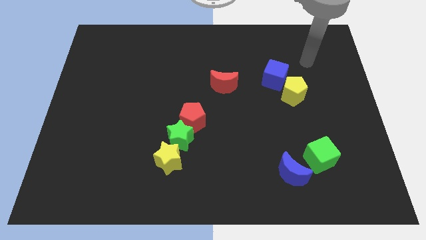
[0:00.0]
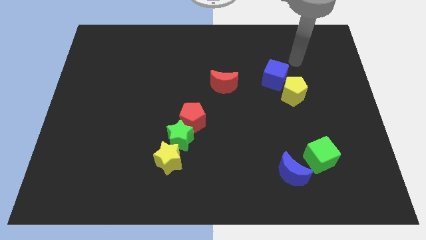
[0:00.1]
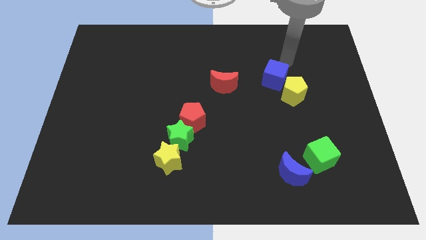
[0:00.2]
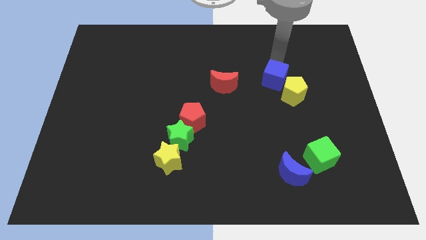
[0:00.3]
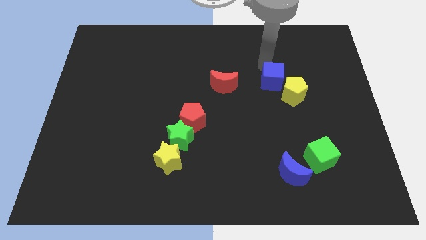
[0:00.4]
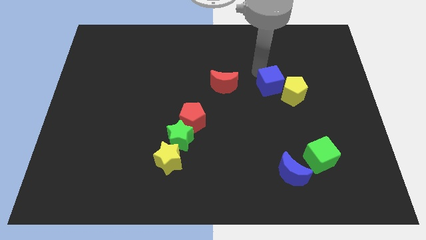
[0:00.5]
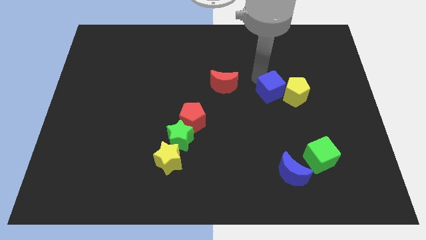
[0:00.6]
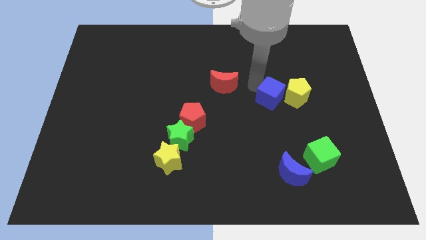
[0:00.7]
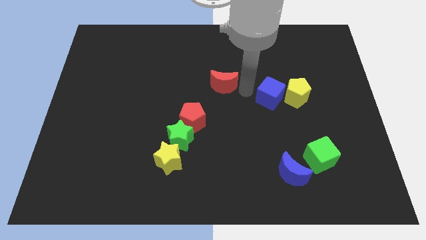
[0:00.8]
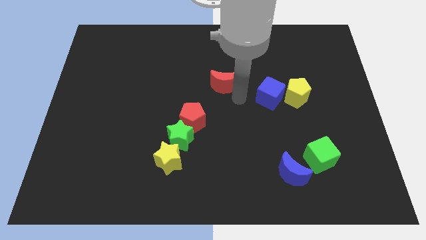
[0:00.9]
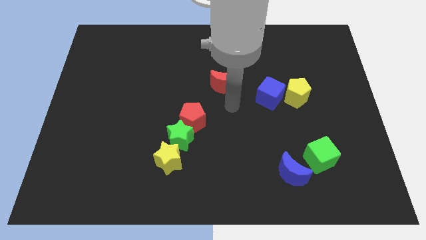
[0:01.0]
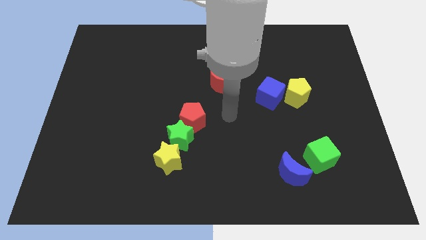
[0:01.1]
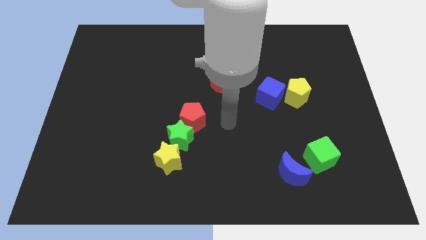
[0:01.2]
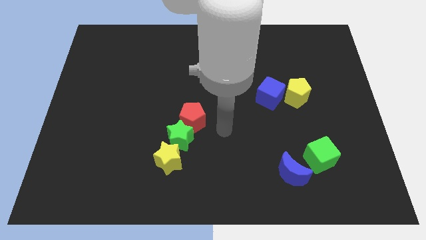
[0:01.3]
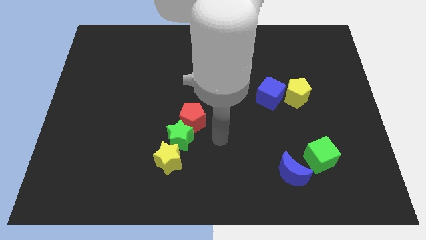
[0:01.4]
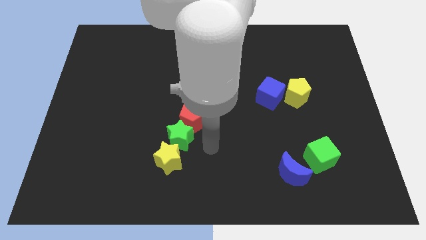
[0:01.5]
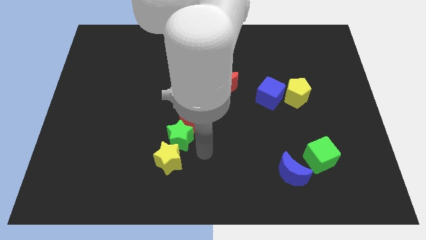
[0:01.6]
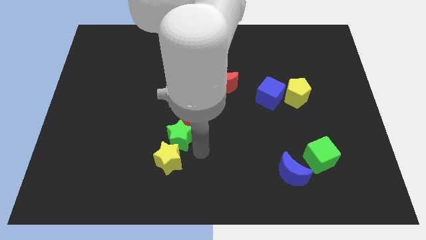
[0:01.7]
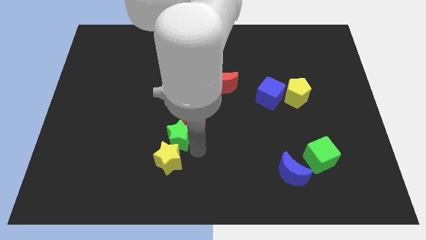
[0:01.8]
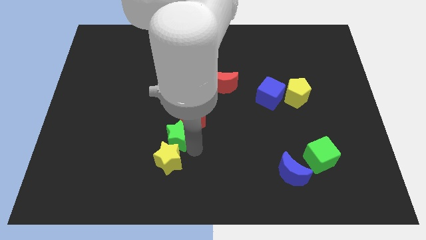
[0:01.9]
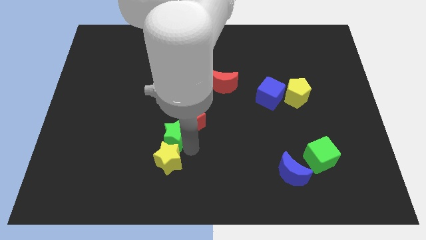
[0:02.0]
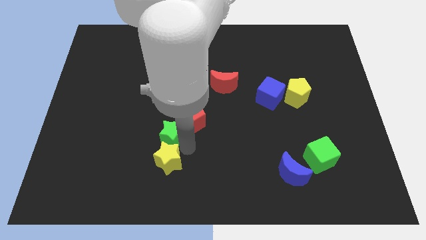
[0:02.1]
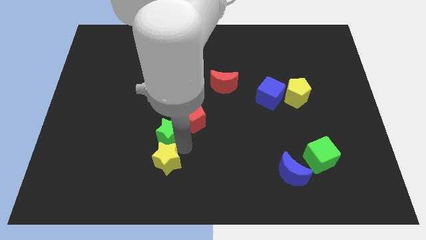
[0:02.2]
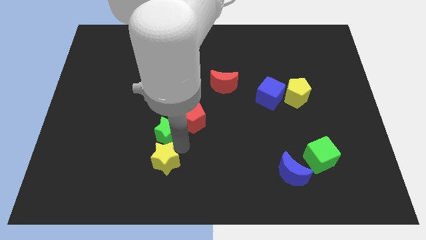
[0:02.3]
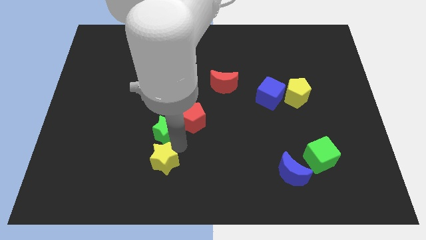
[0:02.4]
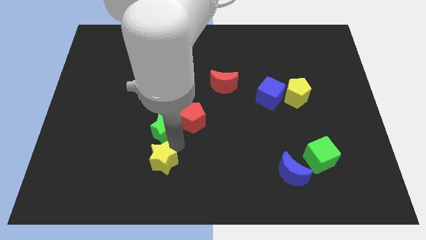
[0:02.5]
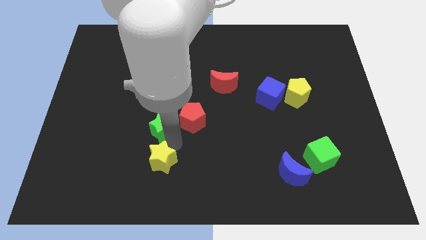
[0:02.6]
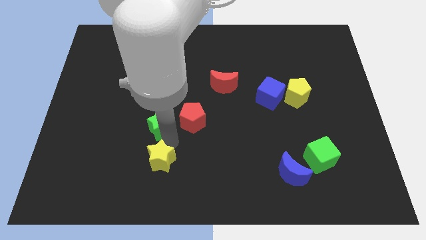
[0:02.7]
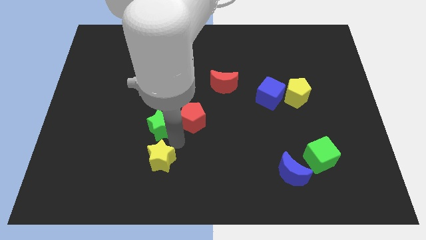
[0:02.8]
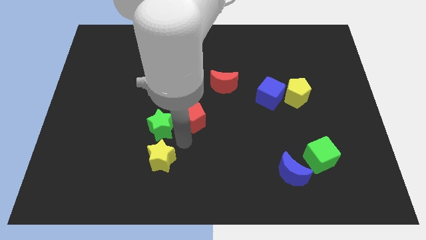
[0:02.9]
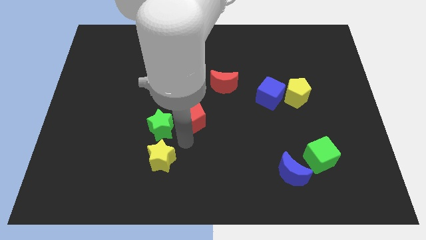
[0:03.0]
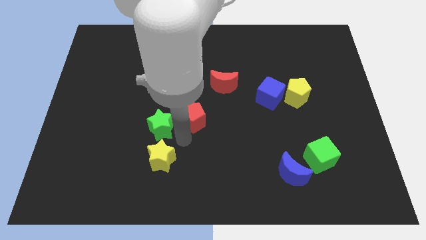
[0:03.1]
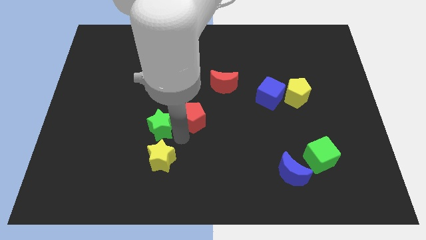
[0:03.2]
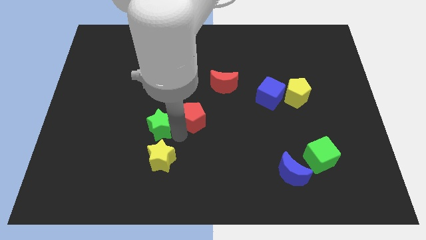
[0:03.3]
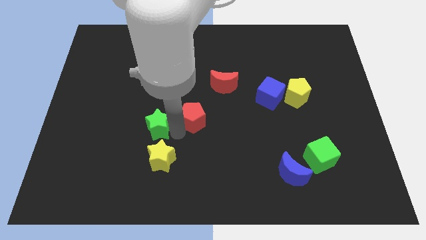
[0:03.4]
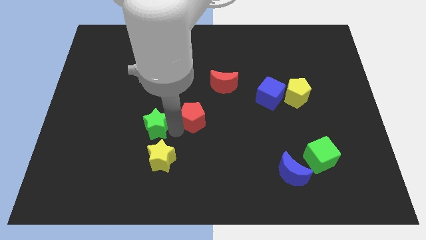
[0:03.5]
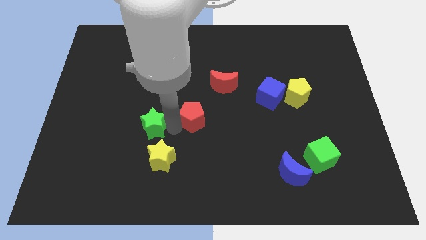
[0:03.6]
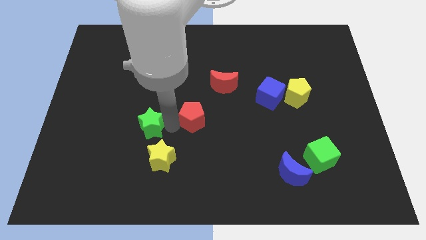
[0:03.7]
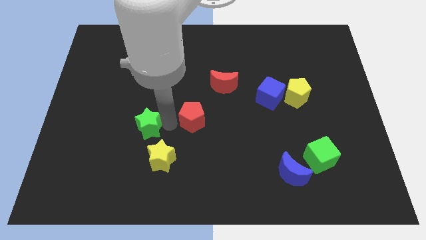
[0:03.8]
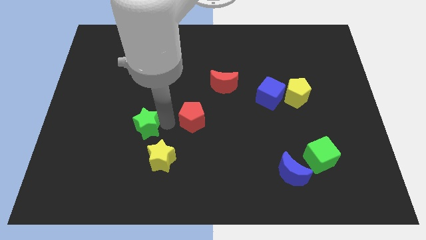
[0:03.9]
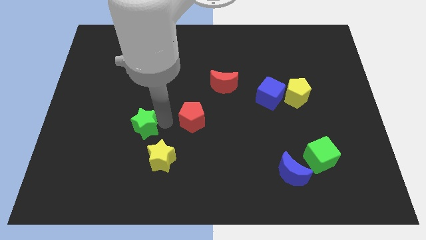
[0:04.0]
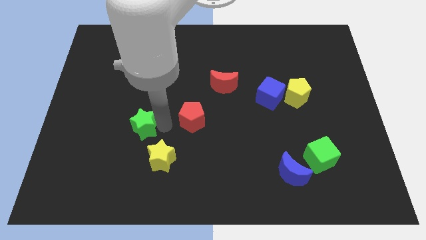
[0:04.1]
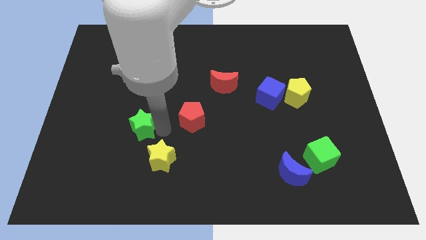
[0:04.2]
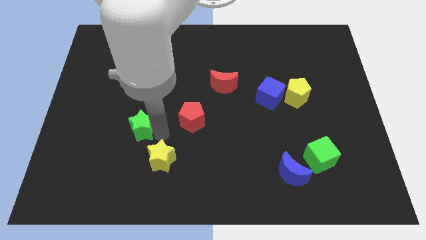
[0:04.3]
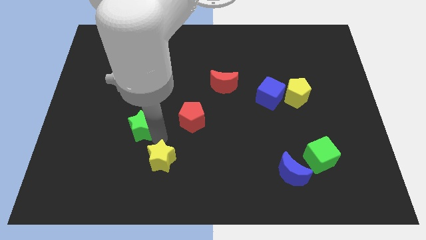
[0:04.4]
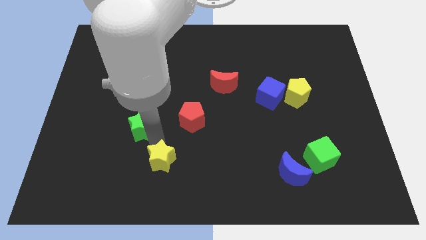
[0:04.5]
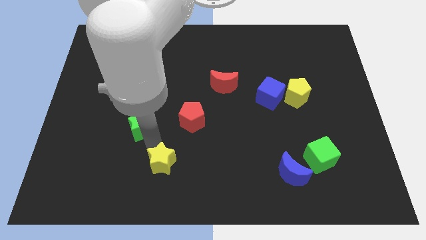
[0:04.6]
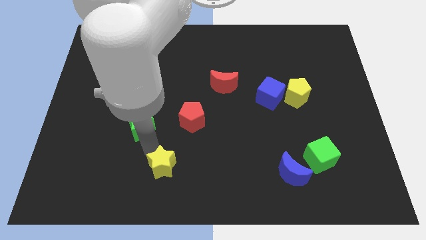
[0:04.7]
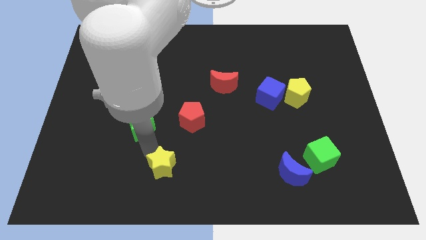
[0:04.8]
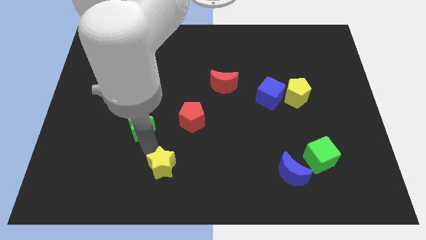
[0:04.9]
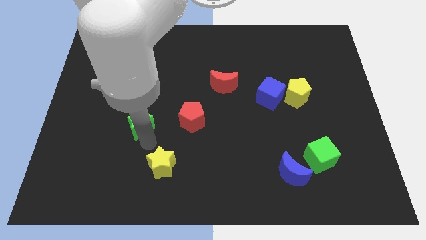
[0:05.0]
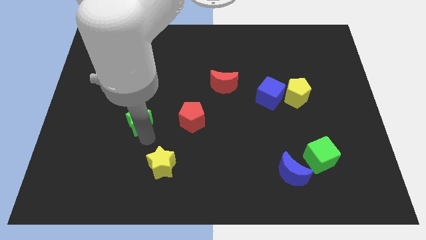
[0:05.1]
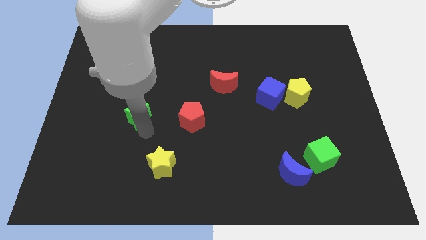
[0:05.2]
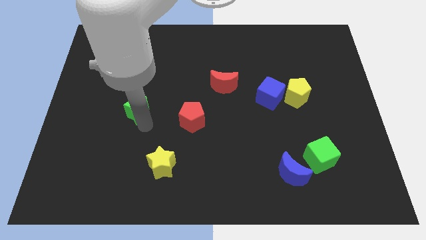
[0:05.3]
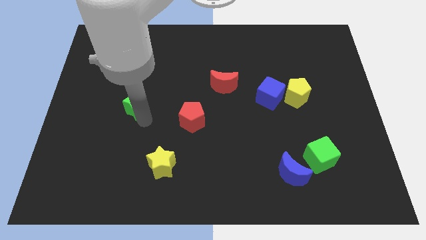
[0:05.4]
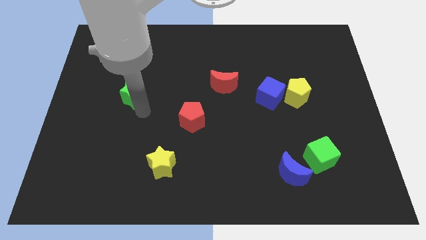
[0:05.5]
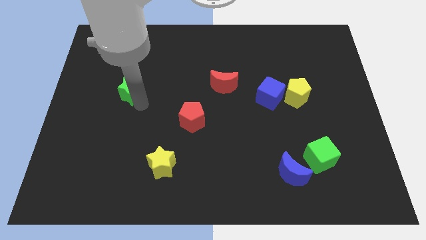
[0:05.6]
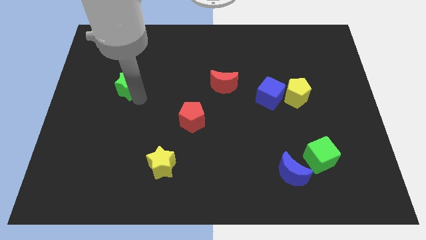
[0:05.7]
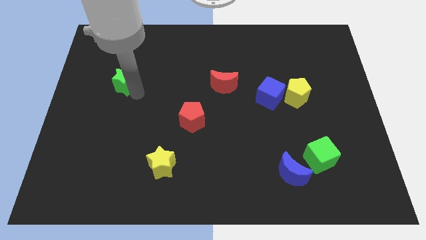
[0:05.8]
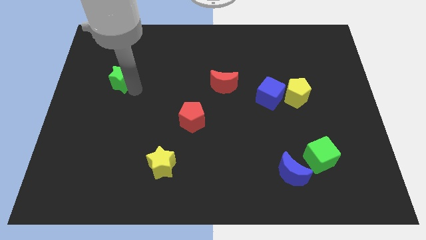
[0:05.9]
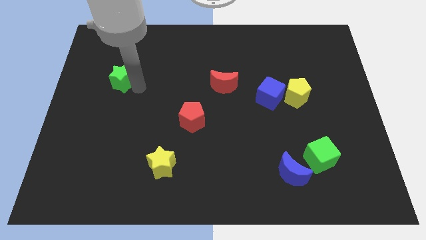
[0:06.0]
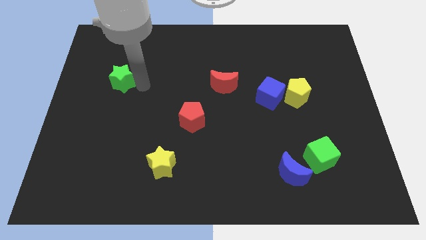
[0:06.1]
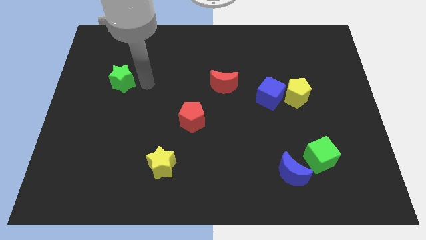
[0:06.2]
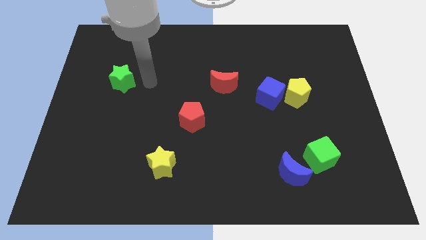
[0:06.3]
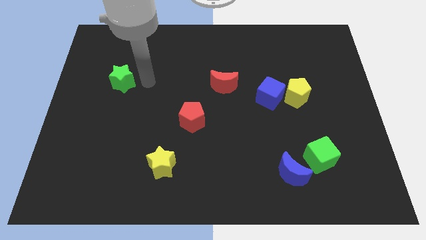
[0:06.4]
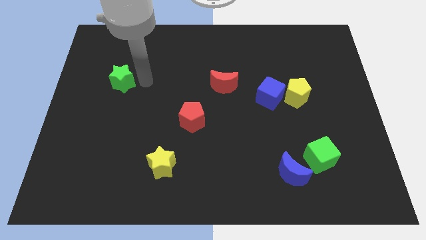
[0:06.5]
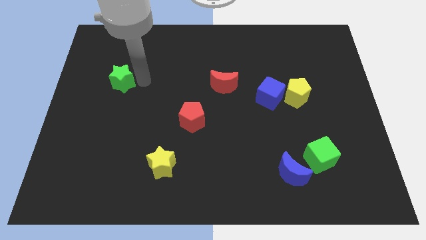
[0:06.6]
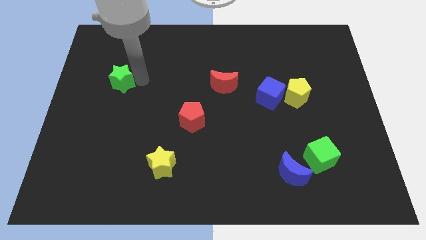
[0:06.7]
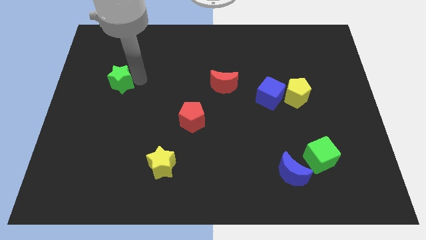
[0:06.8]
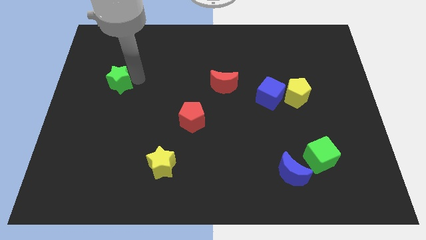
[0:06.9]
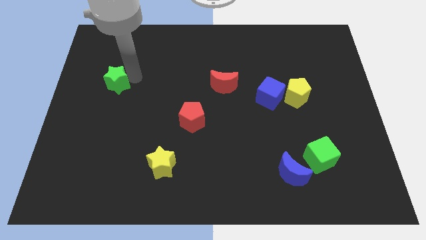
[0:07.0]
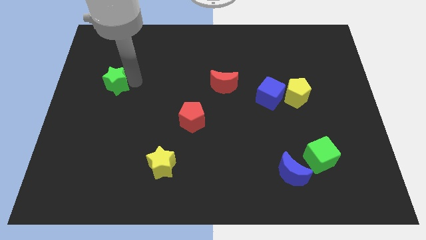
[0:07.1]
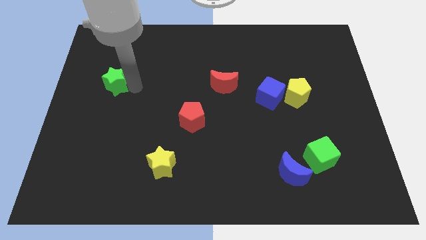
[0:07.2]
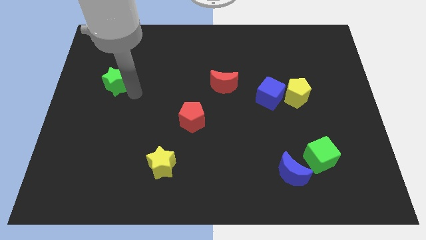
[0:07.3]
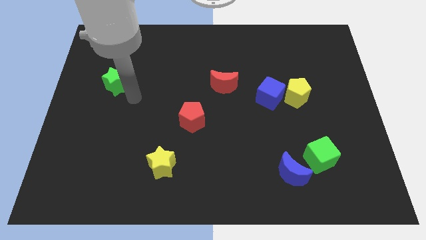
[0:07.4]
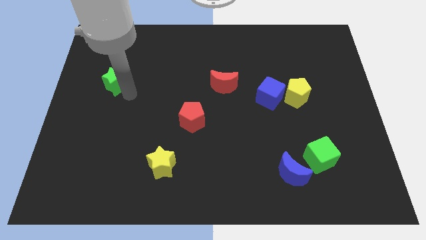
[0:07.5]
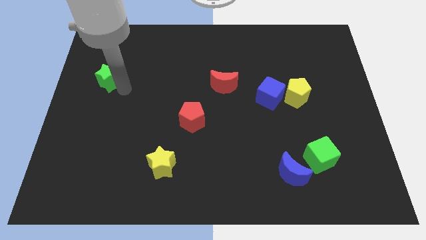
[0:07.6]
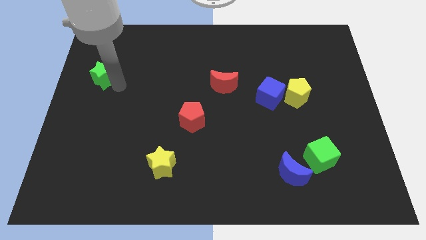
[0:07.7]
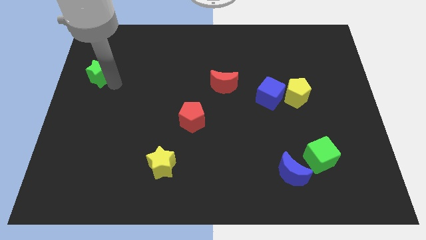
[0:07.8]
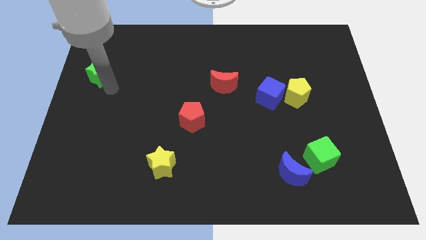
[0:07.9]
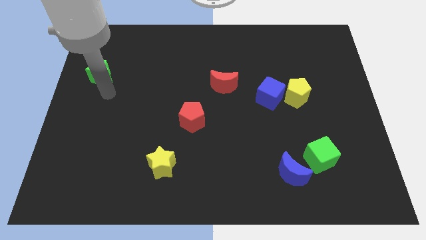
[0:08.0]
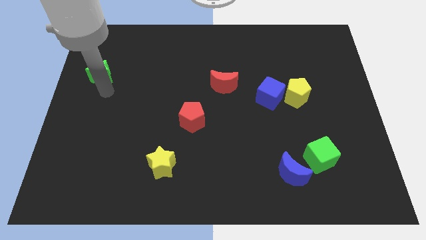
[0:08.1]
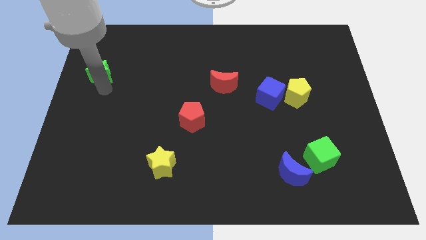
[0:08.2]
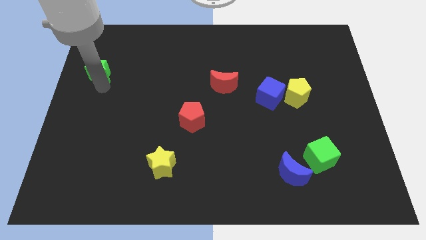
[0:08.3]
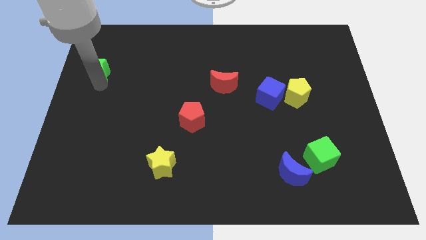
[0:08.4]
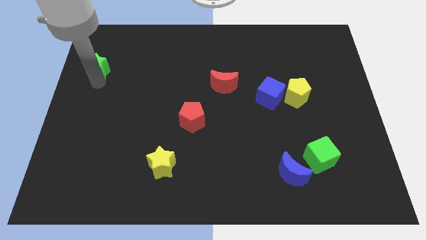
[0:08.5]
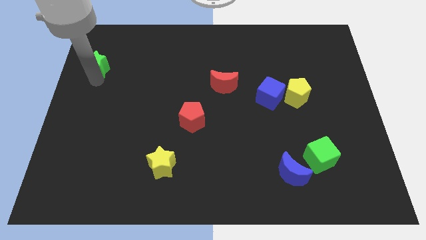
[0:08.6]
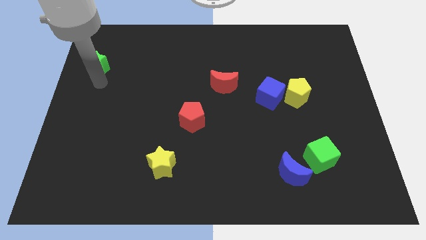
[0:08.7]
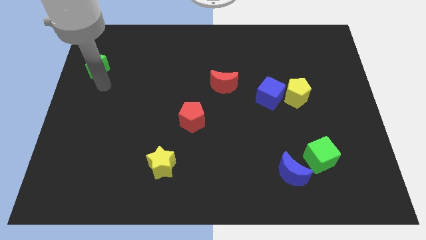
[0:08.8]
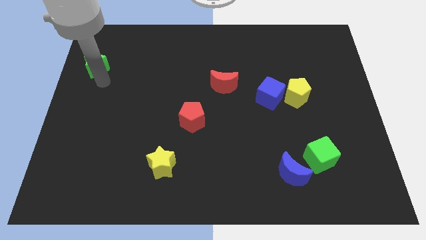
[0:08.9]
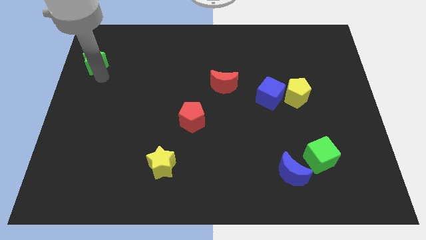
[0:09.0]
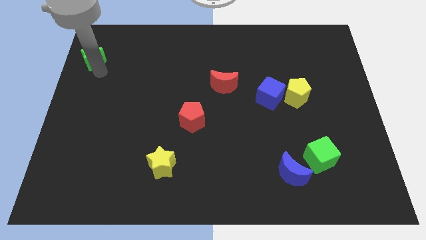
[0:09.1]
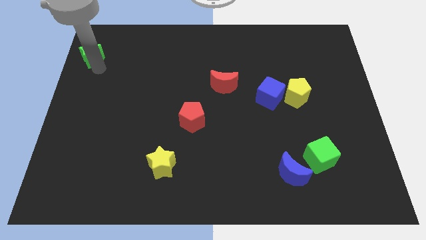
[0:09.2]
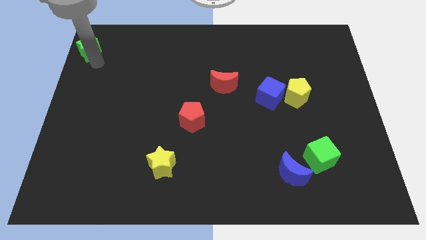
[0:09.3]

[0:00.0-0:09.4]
put the green star to the top left
